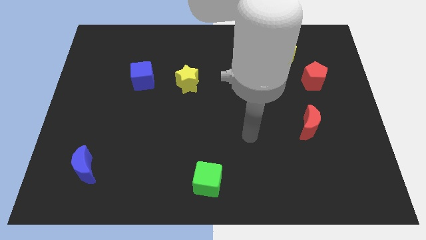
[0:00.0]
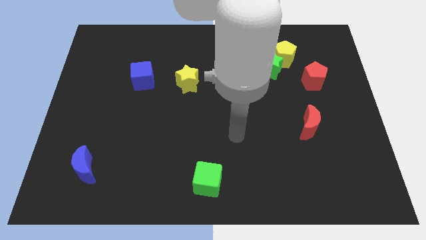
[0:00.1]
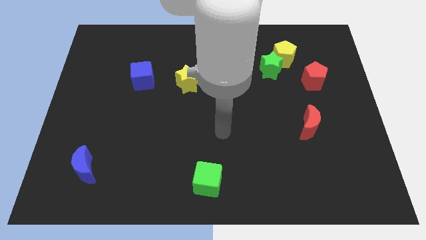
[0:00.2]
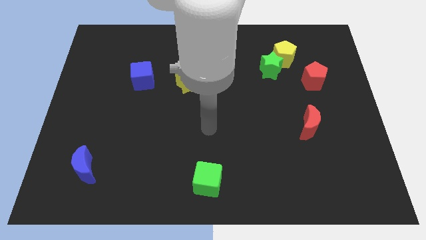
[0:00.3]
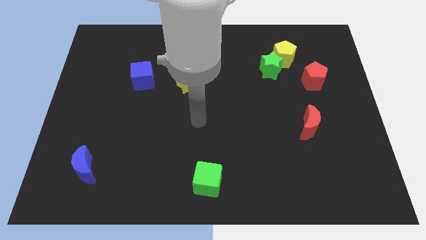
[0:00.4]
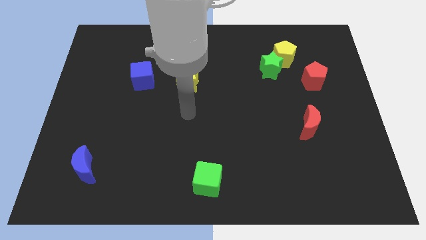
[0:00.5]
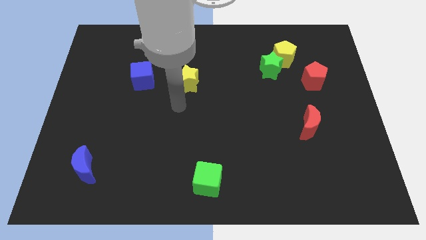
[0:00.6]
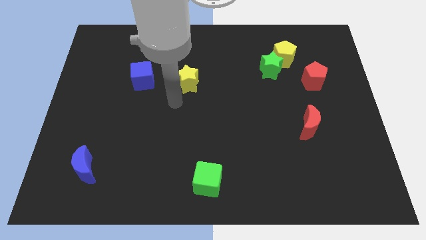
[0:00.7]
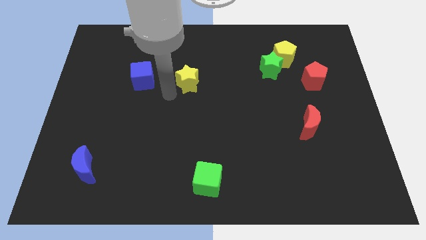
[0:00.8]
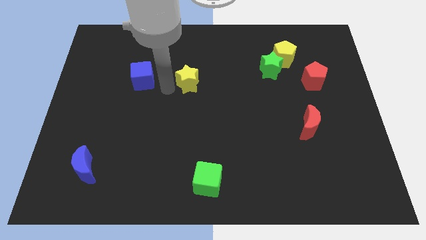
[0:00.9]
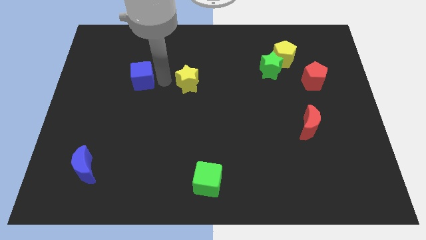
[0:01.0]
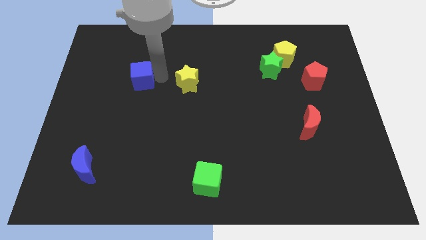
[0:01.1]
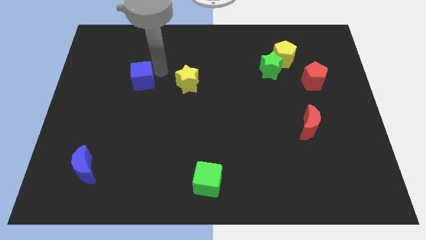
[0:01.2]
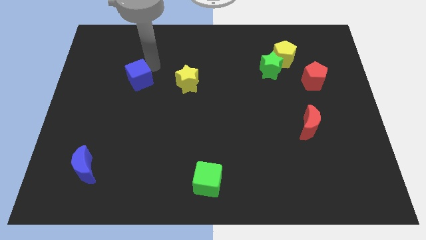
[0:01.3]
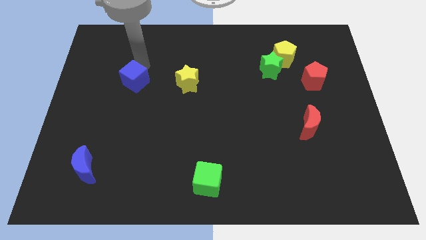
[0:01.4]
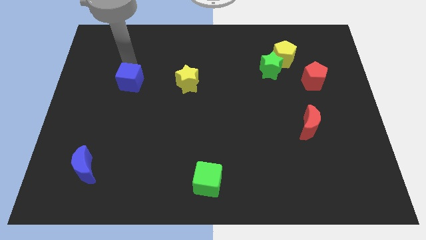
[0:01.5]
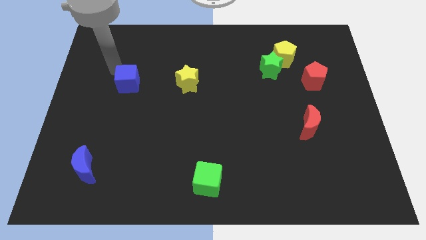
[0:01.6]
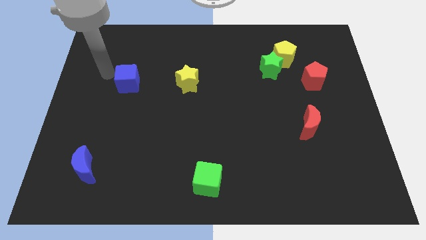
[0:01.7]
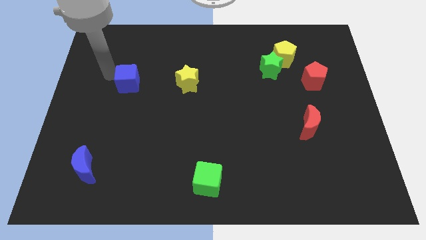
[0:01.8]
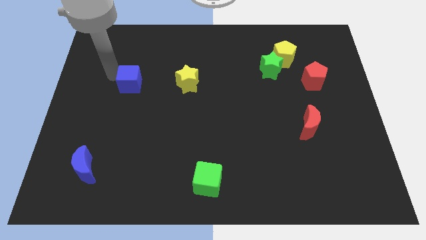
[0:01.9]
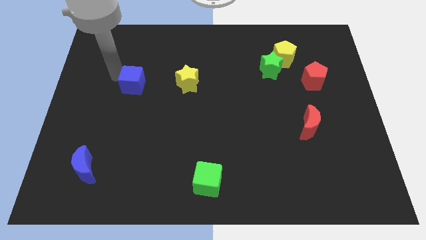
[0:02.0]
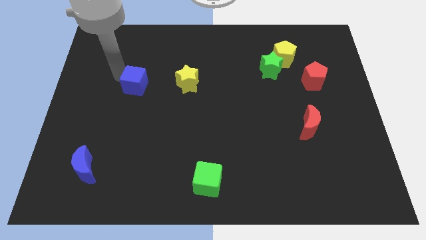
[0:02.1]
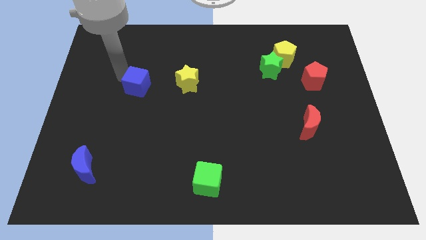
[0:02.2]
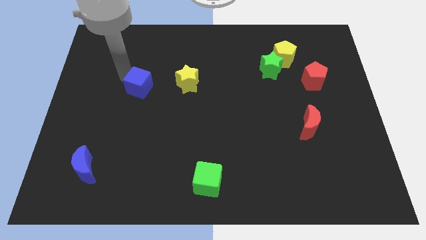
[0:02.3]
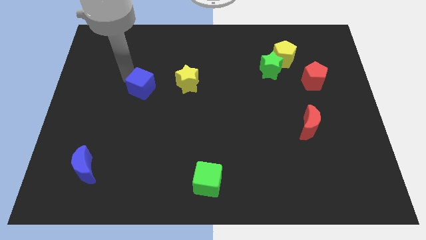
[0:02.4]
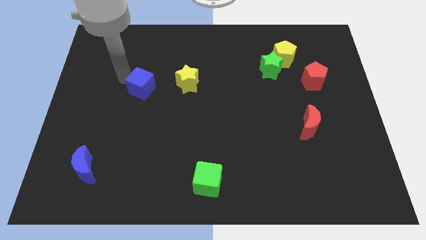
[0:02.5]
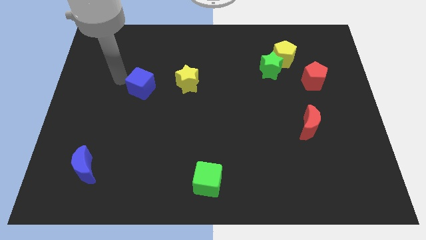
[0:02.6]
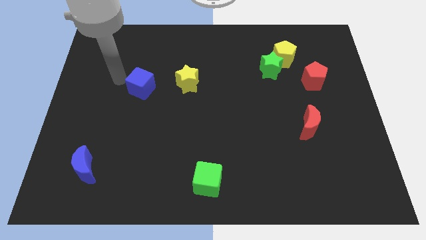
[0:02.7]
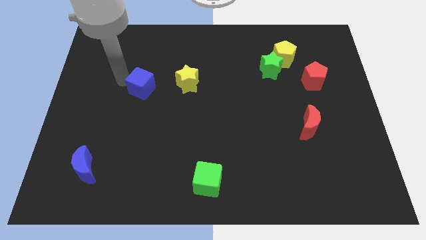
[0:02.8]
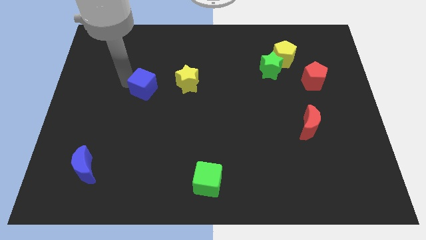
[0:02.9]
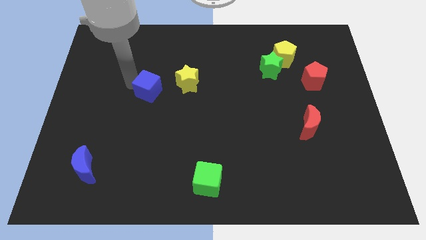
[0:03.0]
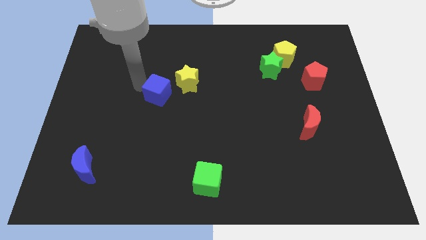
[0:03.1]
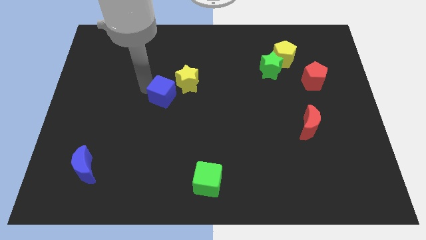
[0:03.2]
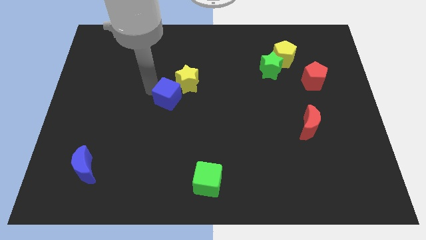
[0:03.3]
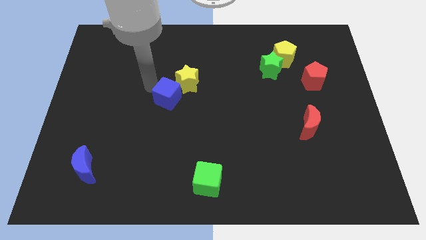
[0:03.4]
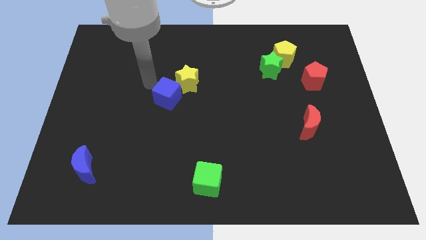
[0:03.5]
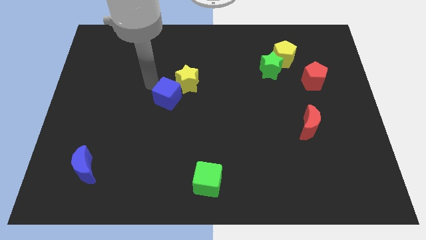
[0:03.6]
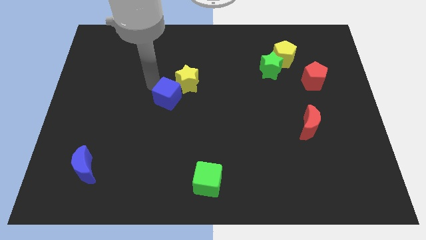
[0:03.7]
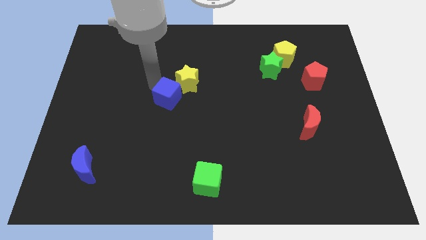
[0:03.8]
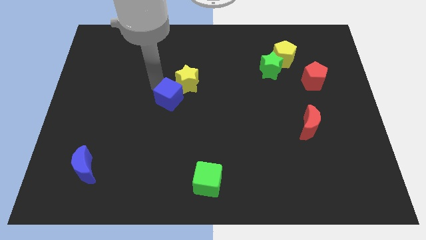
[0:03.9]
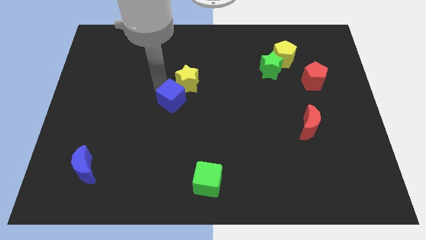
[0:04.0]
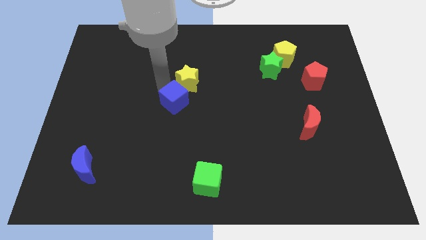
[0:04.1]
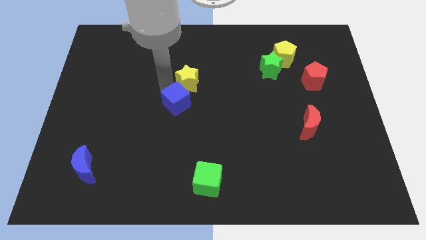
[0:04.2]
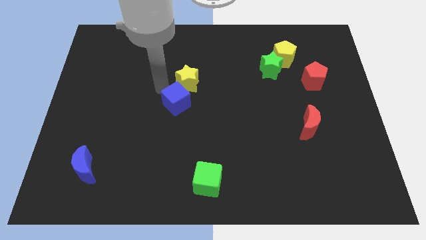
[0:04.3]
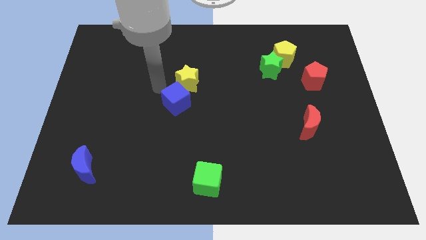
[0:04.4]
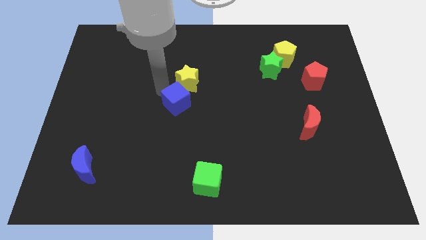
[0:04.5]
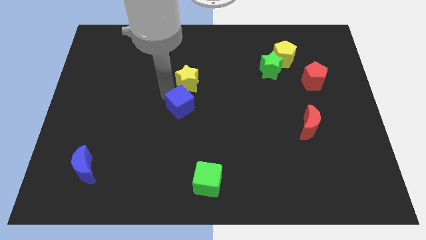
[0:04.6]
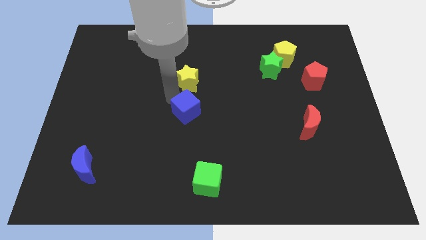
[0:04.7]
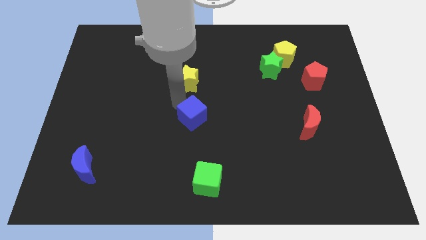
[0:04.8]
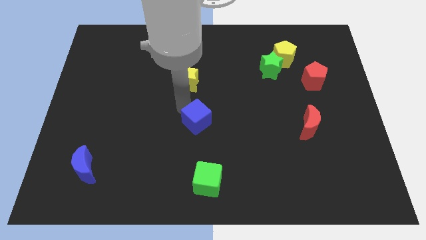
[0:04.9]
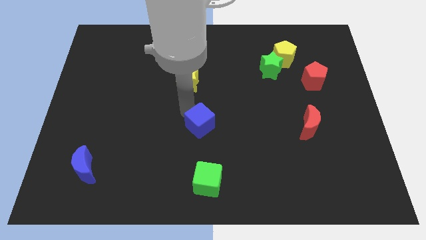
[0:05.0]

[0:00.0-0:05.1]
slide the blue cube down and right

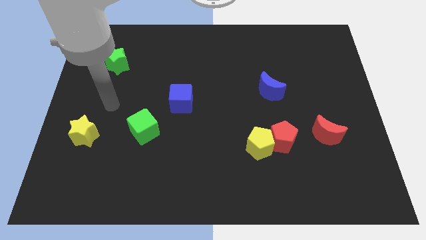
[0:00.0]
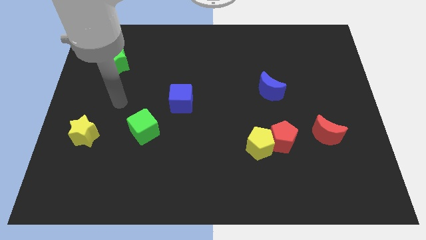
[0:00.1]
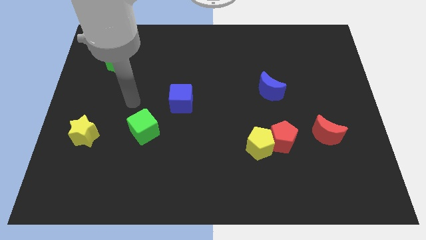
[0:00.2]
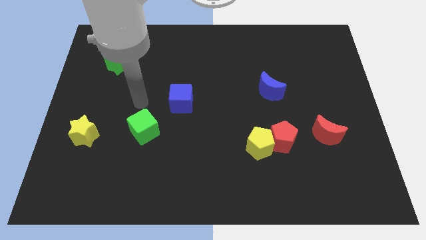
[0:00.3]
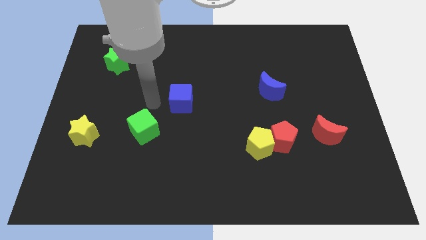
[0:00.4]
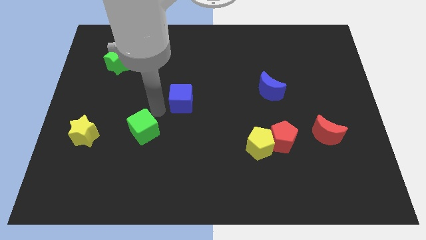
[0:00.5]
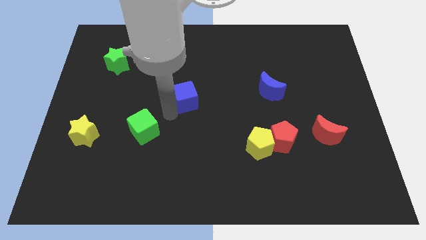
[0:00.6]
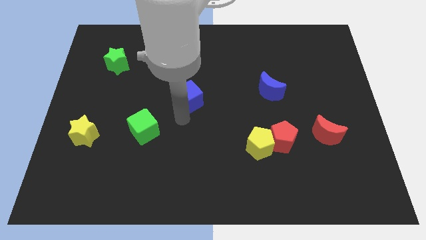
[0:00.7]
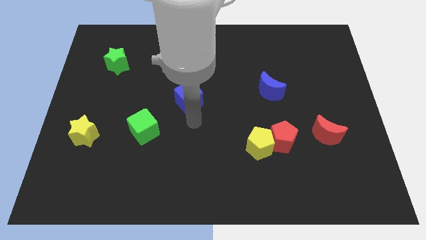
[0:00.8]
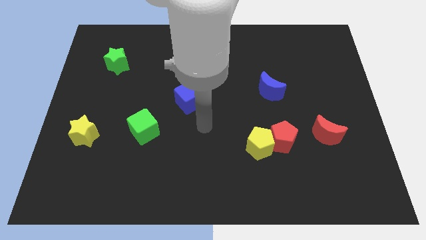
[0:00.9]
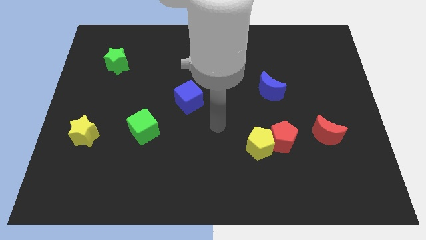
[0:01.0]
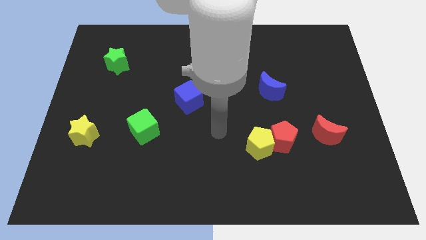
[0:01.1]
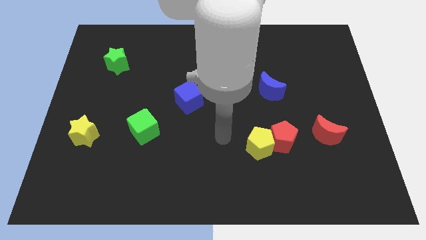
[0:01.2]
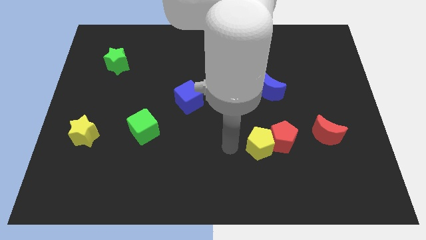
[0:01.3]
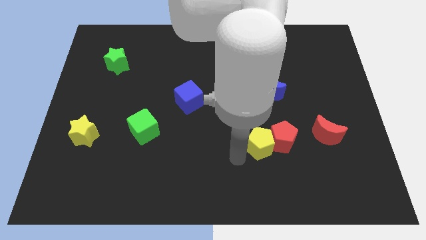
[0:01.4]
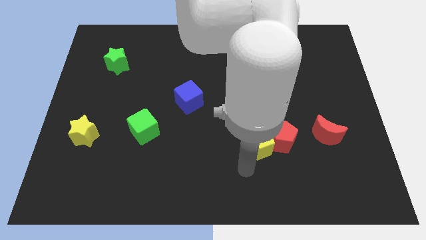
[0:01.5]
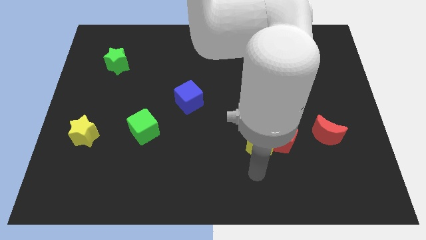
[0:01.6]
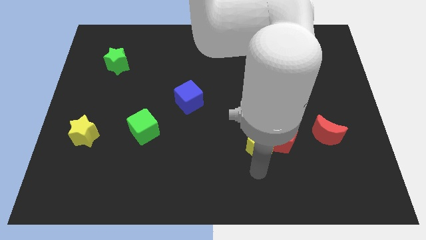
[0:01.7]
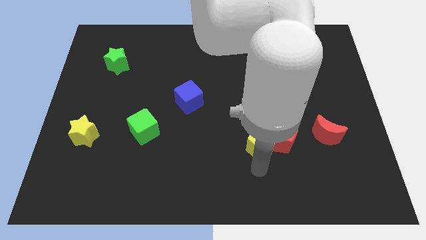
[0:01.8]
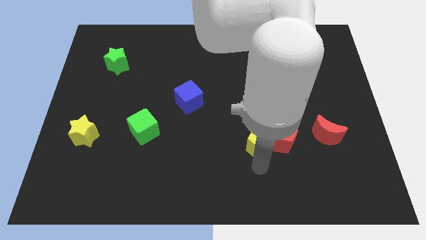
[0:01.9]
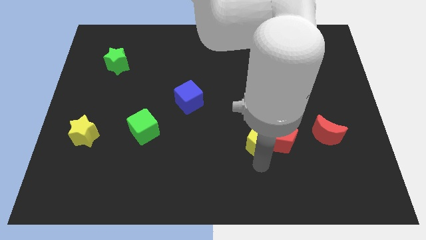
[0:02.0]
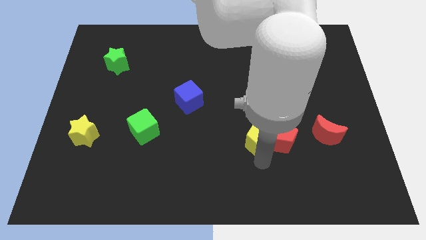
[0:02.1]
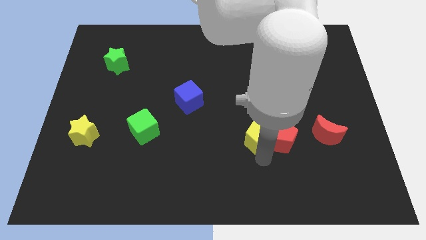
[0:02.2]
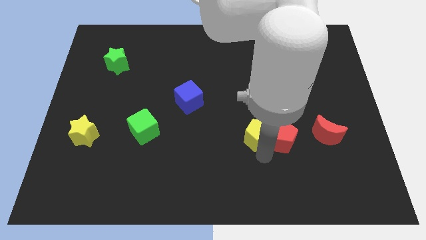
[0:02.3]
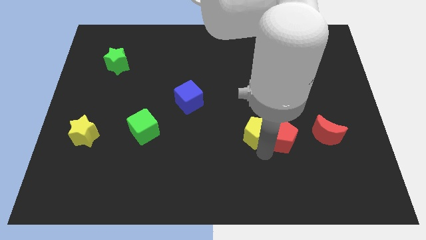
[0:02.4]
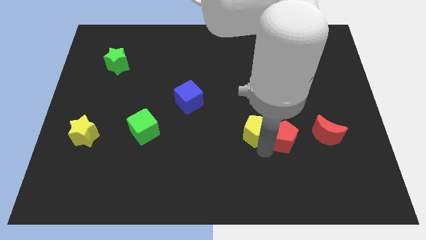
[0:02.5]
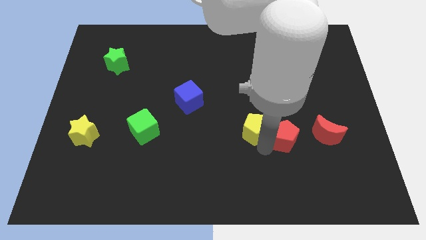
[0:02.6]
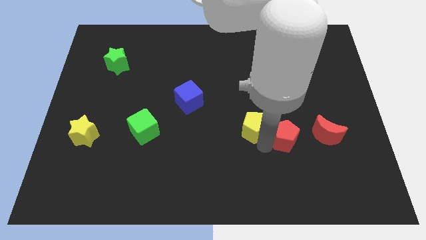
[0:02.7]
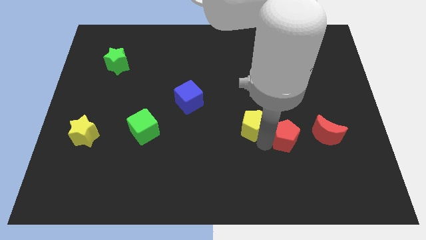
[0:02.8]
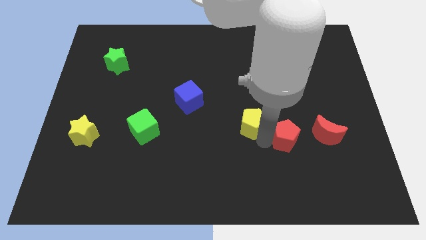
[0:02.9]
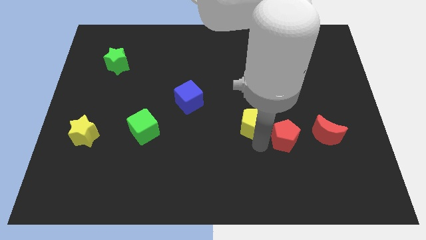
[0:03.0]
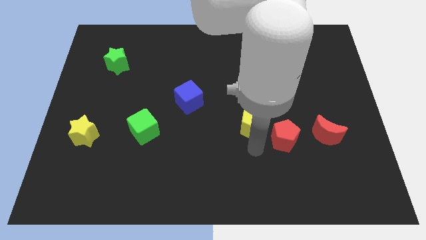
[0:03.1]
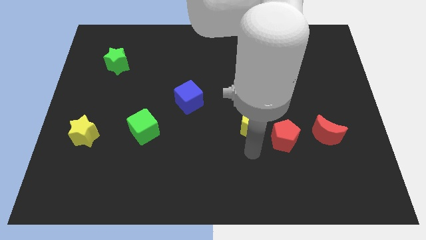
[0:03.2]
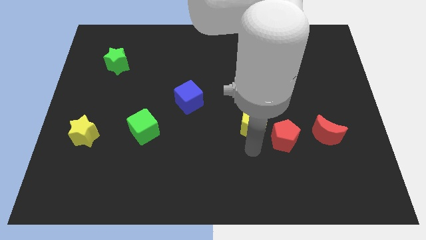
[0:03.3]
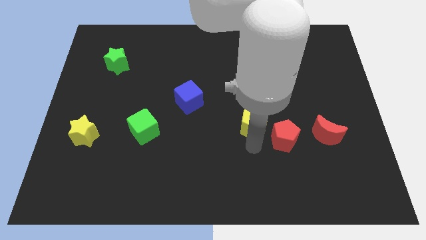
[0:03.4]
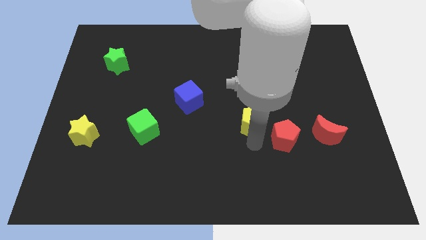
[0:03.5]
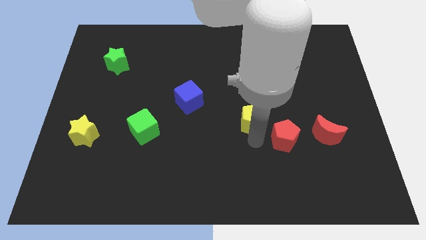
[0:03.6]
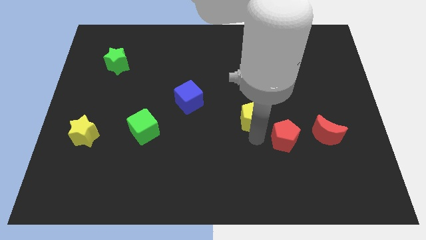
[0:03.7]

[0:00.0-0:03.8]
slide the yellow pentagon upwards a little bit
